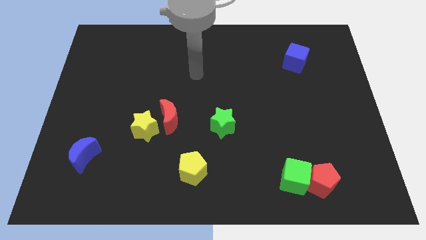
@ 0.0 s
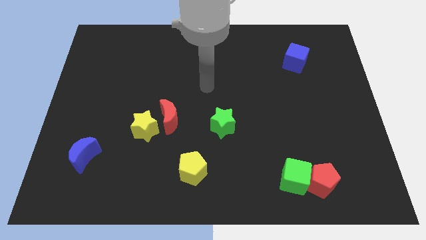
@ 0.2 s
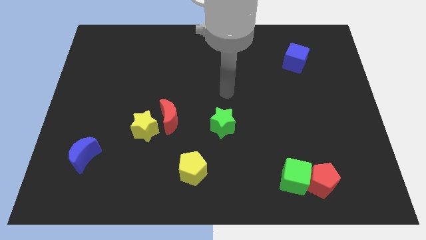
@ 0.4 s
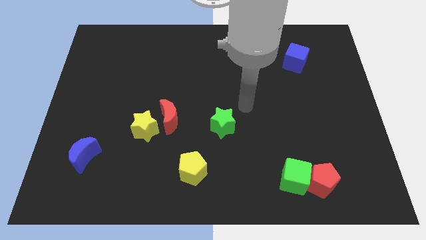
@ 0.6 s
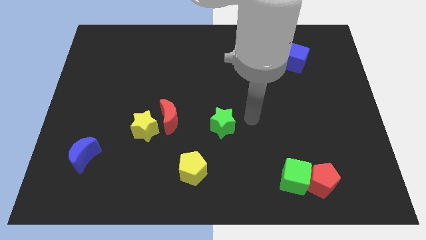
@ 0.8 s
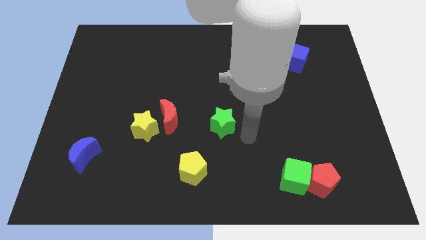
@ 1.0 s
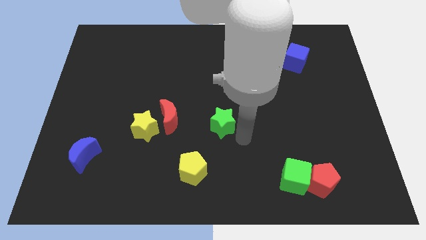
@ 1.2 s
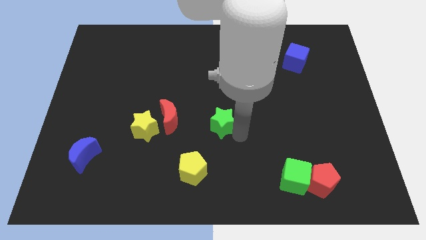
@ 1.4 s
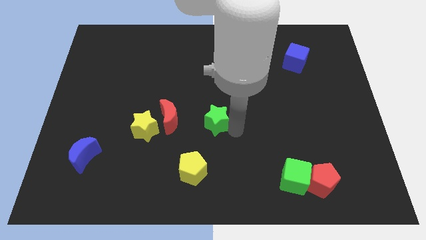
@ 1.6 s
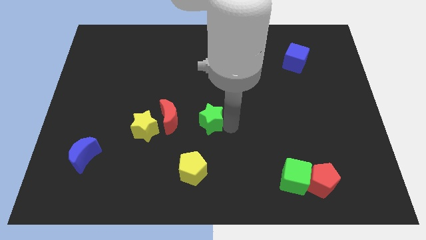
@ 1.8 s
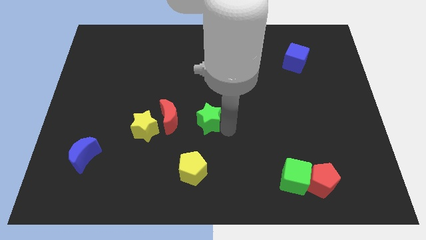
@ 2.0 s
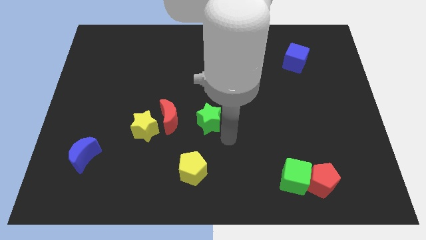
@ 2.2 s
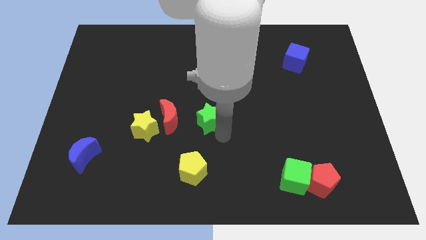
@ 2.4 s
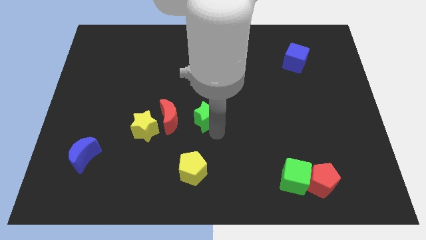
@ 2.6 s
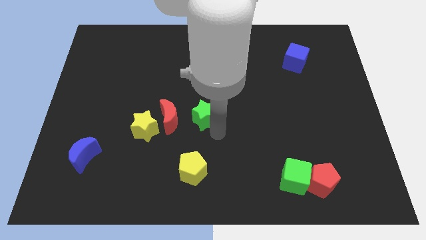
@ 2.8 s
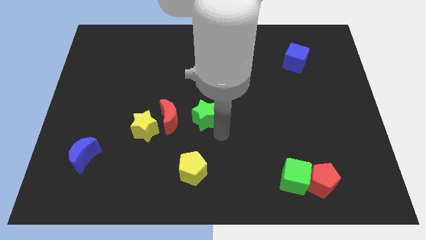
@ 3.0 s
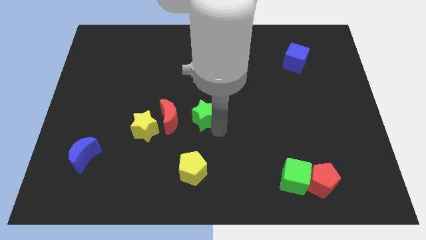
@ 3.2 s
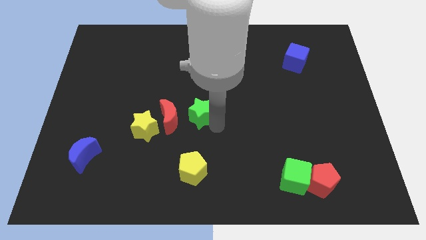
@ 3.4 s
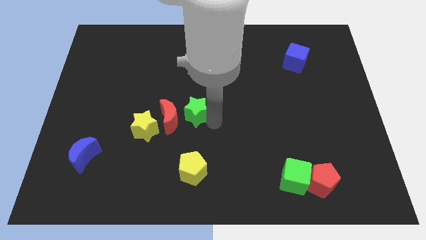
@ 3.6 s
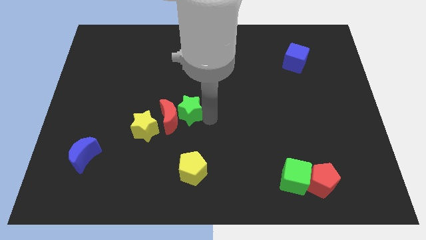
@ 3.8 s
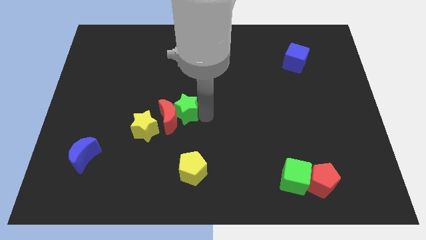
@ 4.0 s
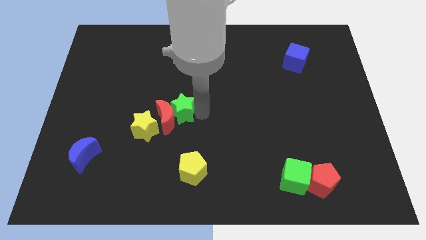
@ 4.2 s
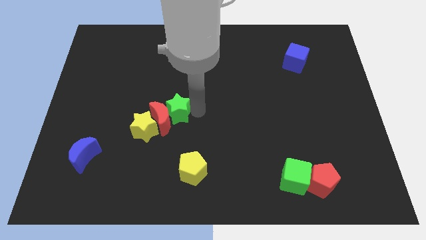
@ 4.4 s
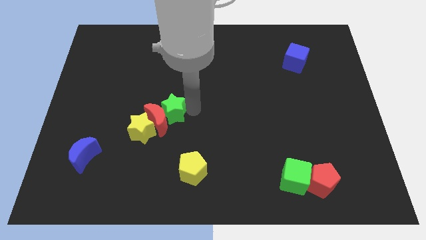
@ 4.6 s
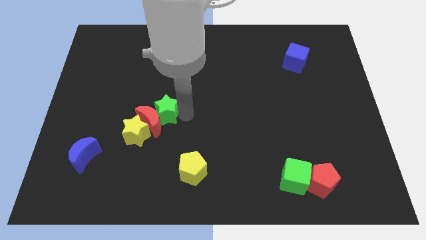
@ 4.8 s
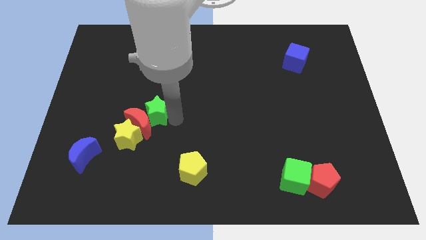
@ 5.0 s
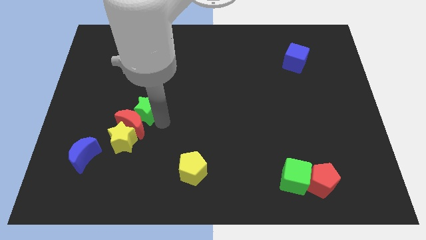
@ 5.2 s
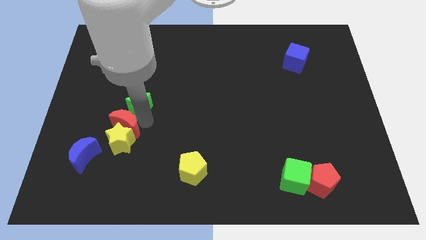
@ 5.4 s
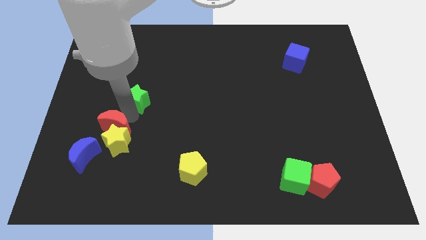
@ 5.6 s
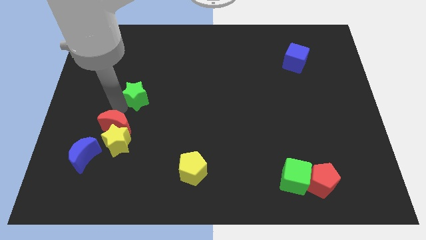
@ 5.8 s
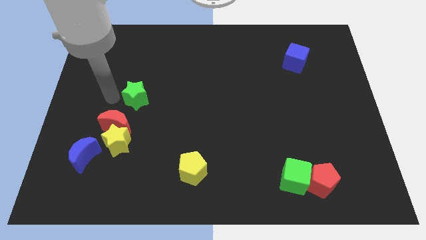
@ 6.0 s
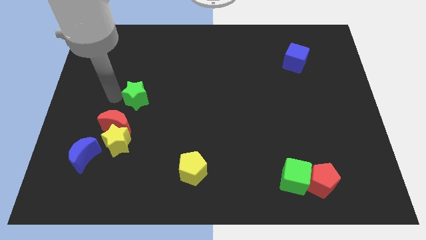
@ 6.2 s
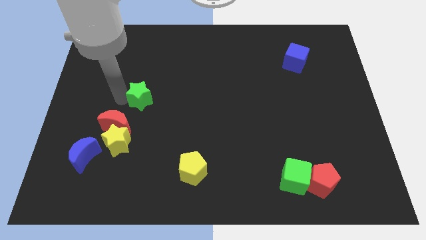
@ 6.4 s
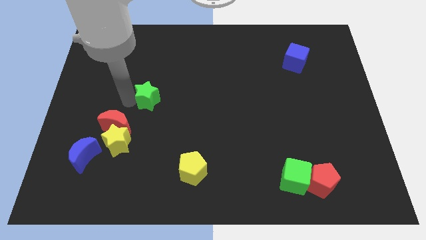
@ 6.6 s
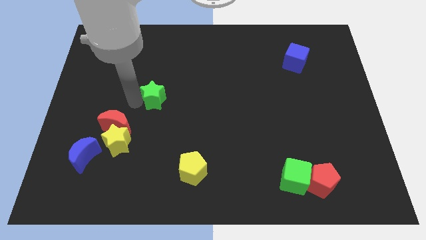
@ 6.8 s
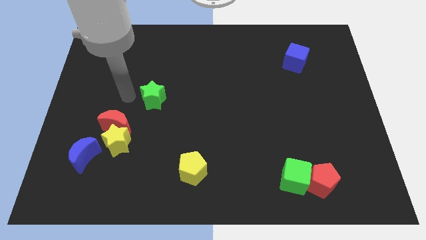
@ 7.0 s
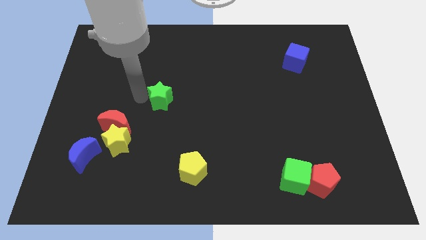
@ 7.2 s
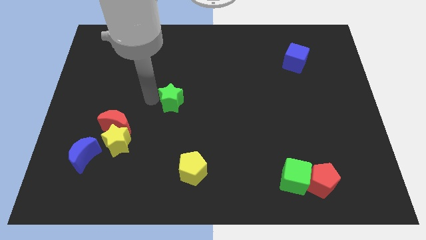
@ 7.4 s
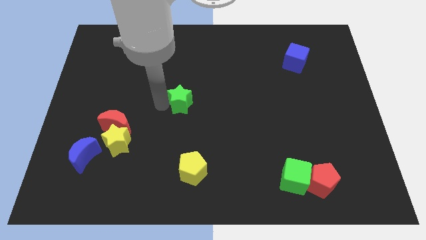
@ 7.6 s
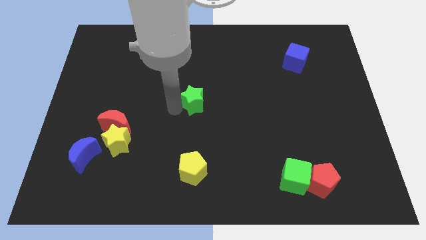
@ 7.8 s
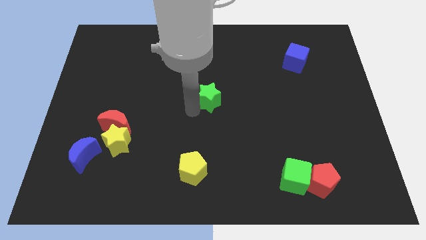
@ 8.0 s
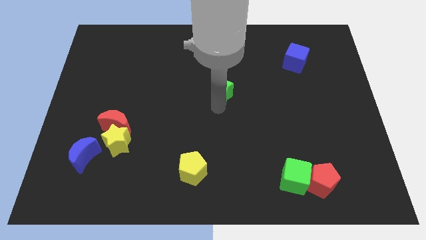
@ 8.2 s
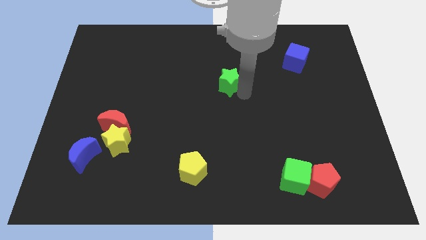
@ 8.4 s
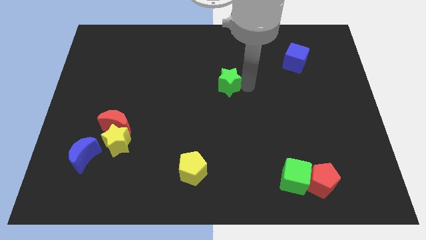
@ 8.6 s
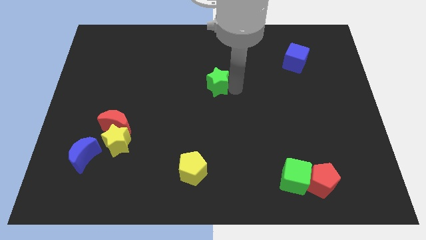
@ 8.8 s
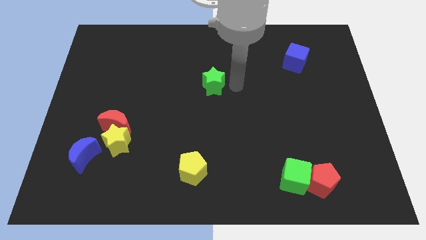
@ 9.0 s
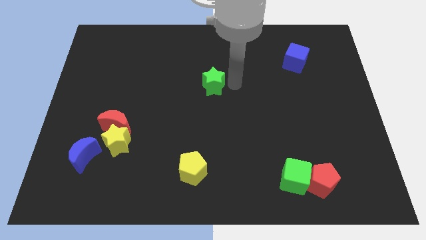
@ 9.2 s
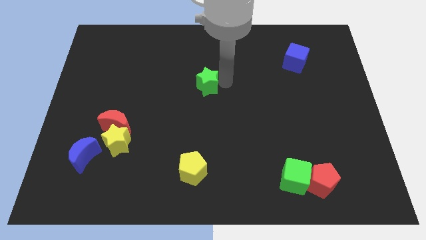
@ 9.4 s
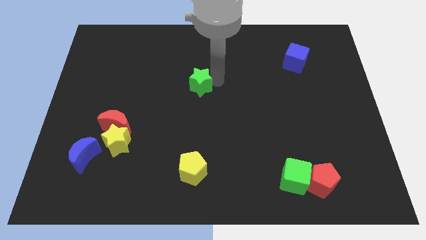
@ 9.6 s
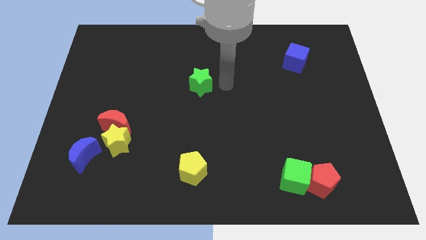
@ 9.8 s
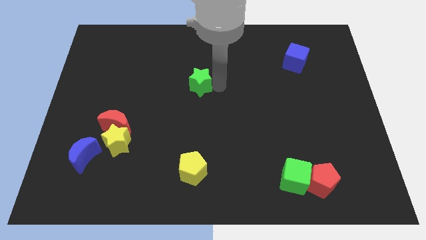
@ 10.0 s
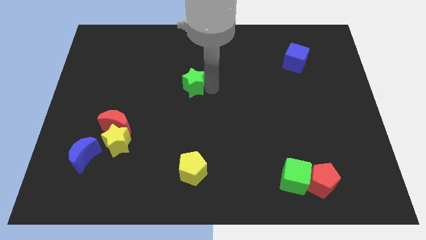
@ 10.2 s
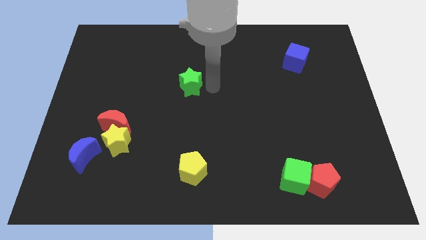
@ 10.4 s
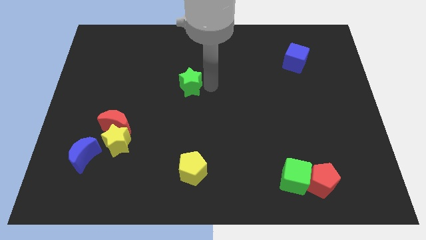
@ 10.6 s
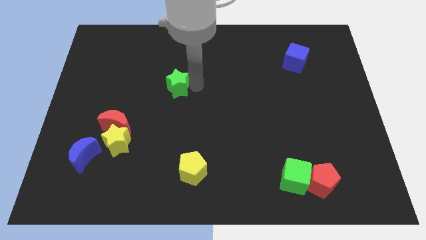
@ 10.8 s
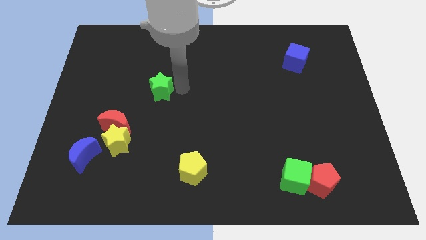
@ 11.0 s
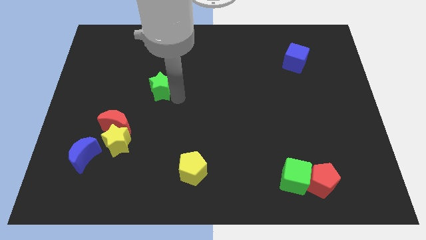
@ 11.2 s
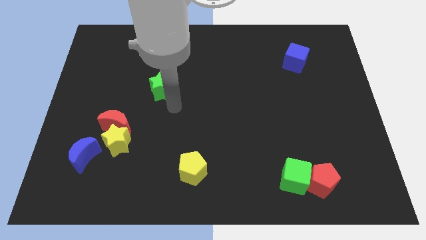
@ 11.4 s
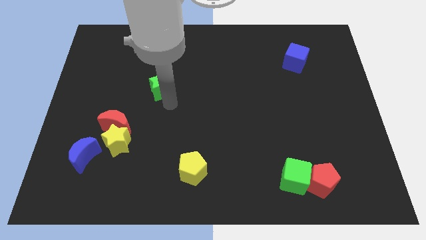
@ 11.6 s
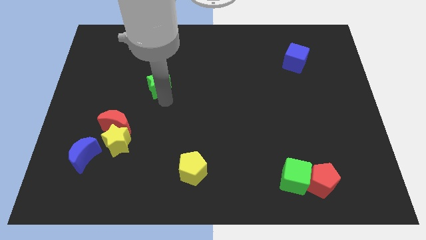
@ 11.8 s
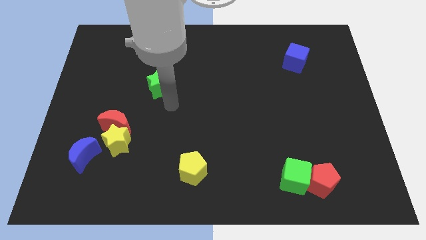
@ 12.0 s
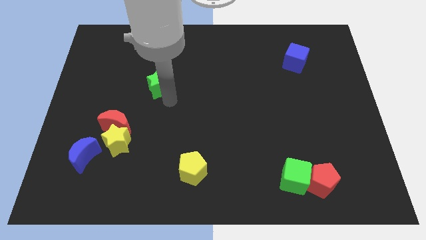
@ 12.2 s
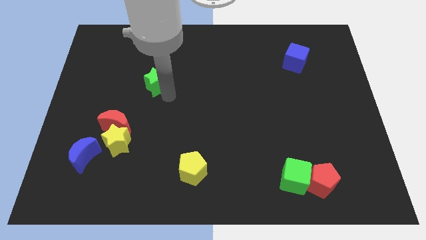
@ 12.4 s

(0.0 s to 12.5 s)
slide the green star upwards and to the left

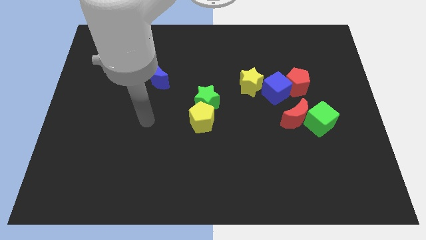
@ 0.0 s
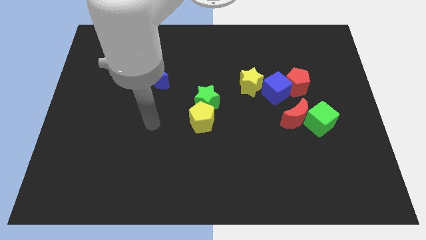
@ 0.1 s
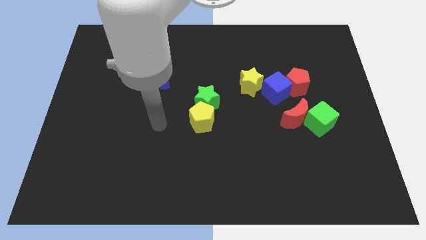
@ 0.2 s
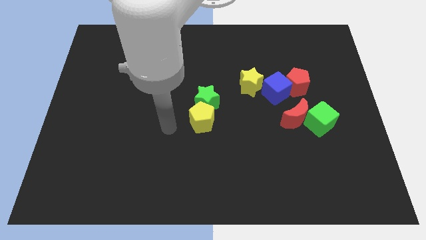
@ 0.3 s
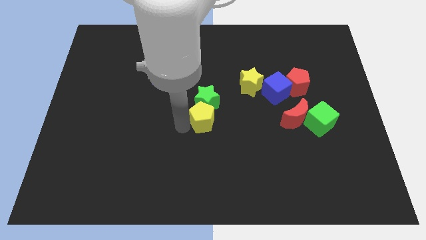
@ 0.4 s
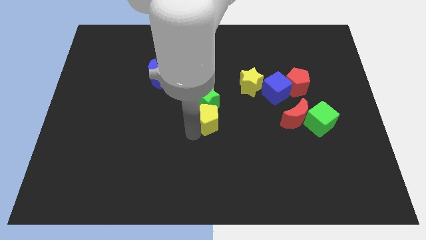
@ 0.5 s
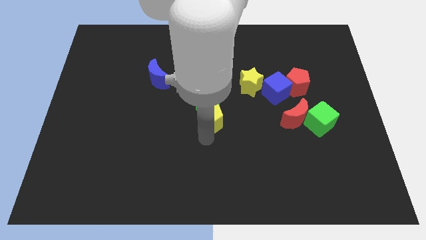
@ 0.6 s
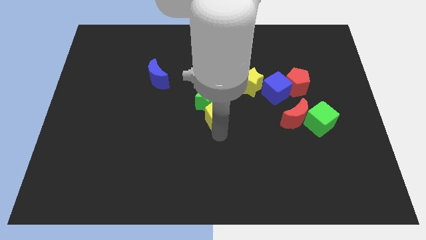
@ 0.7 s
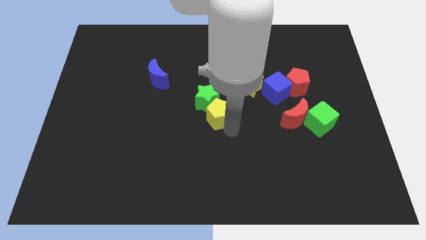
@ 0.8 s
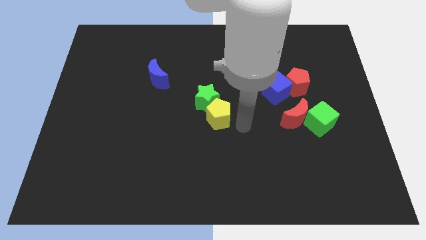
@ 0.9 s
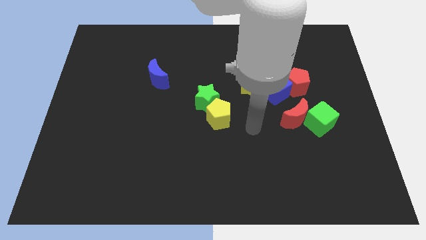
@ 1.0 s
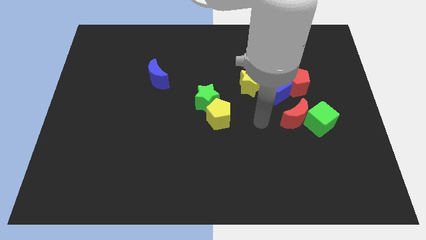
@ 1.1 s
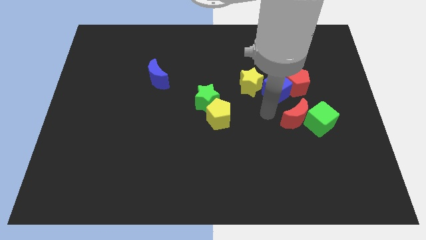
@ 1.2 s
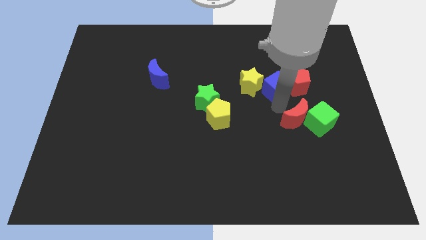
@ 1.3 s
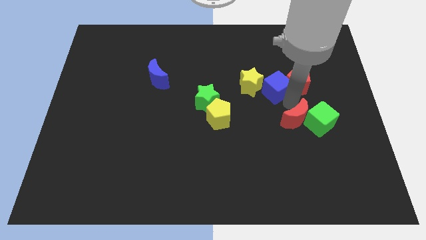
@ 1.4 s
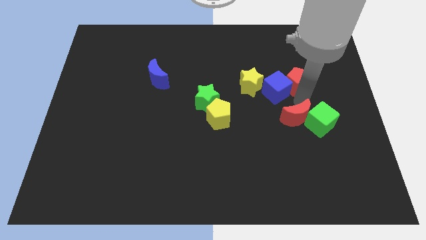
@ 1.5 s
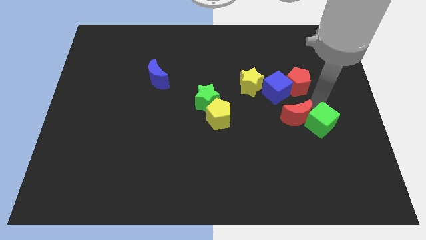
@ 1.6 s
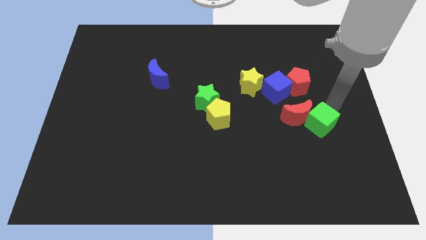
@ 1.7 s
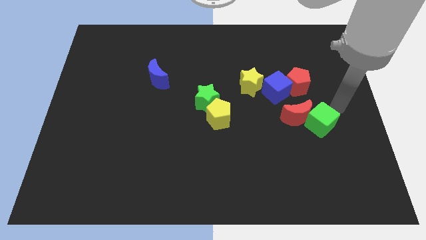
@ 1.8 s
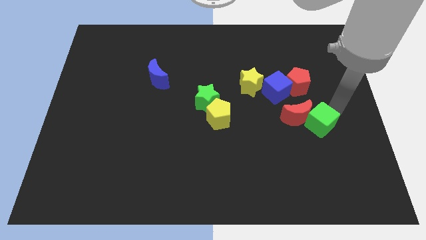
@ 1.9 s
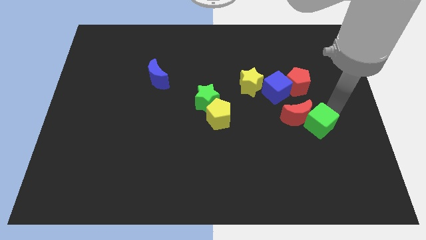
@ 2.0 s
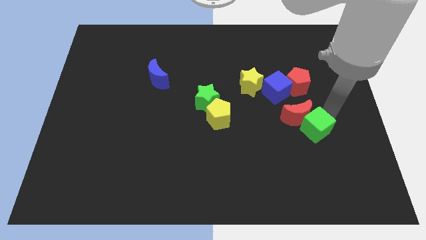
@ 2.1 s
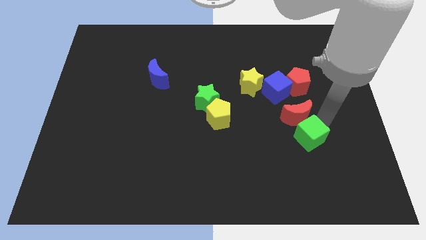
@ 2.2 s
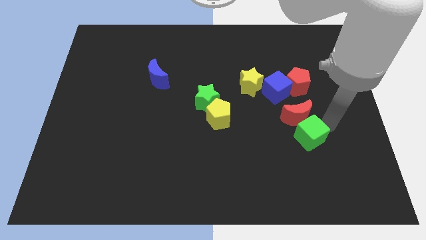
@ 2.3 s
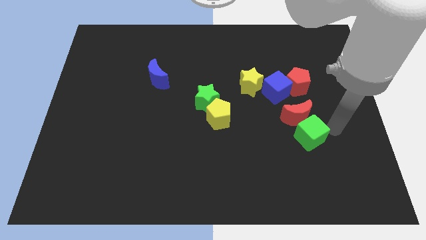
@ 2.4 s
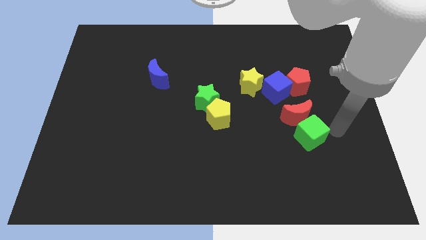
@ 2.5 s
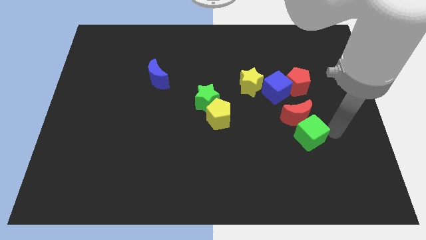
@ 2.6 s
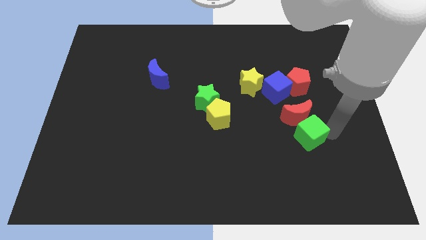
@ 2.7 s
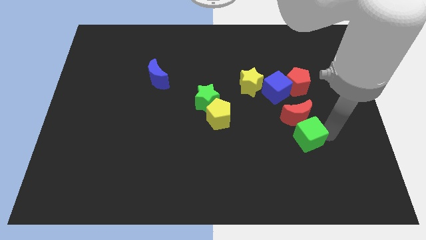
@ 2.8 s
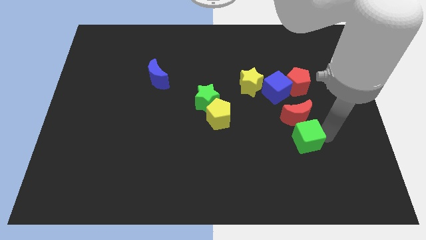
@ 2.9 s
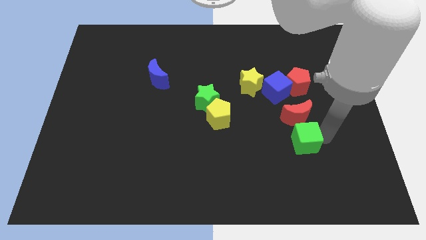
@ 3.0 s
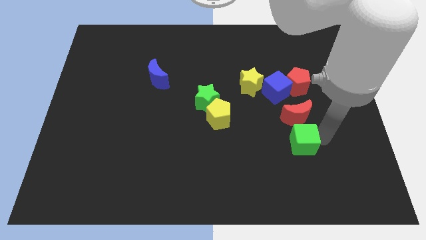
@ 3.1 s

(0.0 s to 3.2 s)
push the green cube down and to the left diagonally slightly
